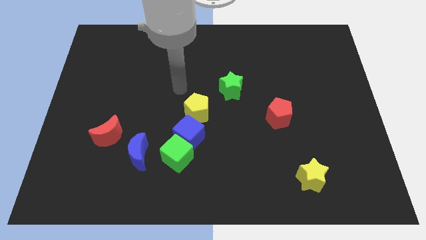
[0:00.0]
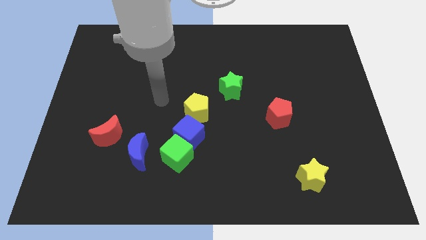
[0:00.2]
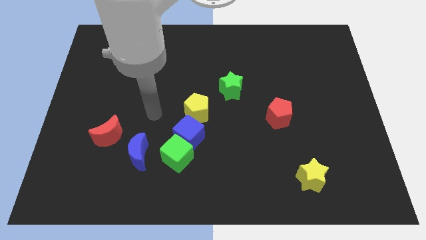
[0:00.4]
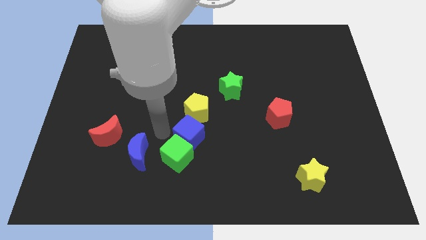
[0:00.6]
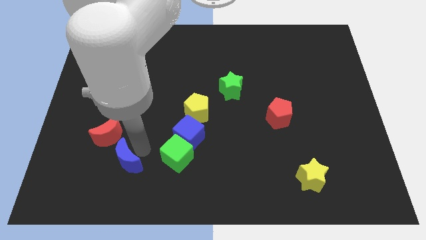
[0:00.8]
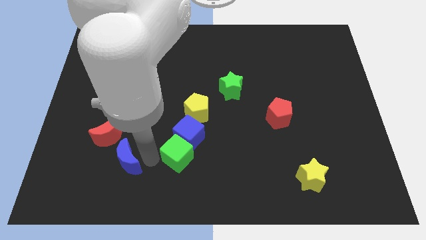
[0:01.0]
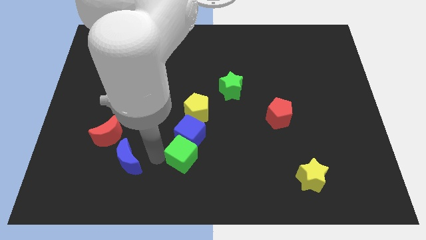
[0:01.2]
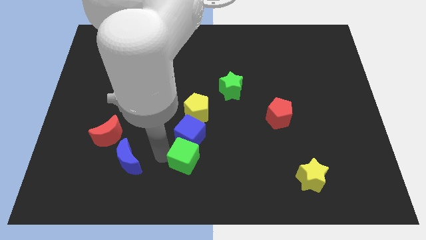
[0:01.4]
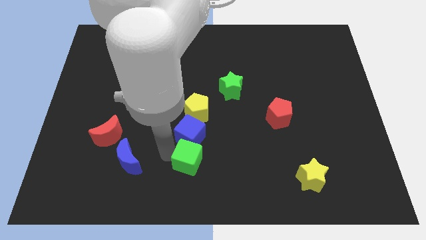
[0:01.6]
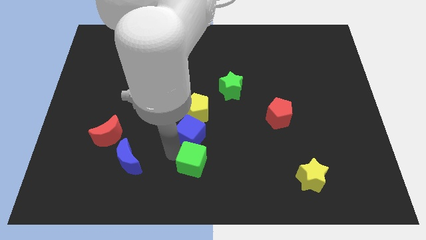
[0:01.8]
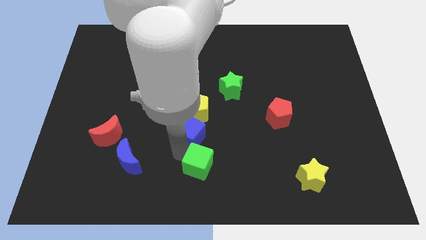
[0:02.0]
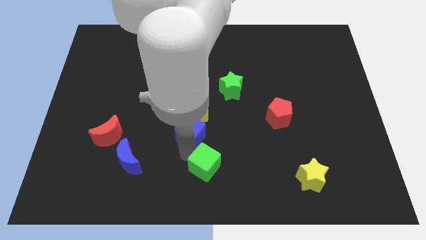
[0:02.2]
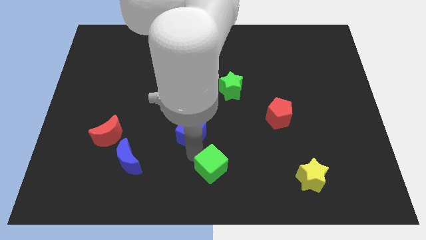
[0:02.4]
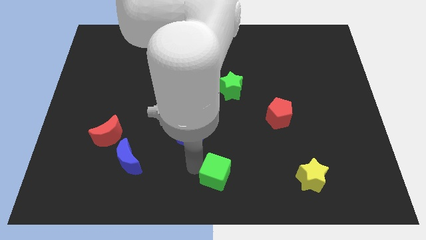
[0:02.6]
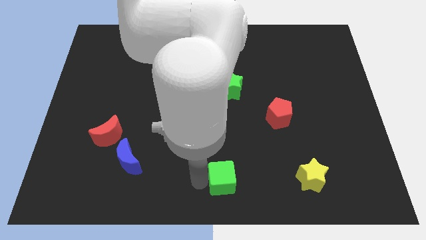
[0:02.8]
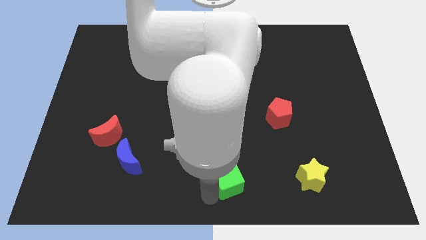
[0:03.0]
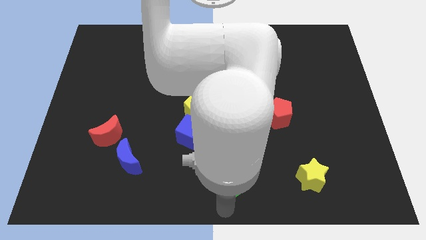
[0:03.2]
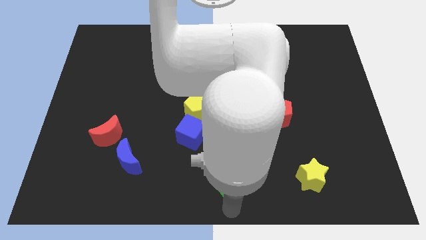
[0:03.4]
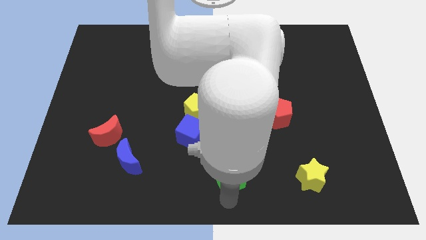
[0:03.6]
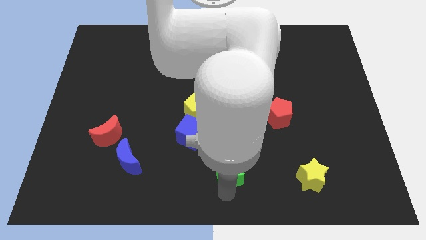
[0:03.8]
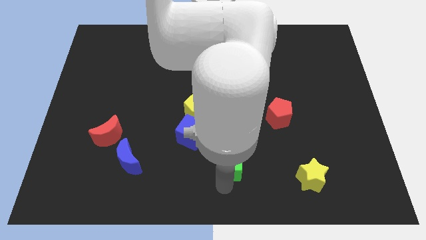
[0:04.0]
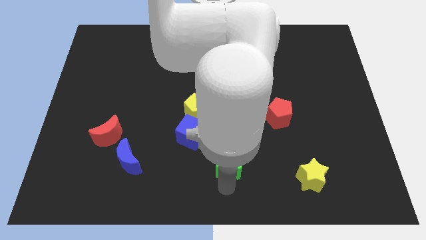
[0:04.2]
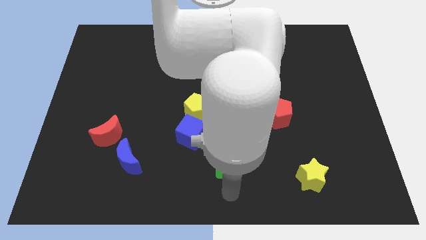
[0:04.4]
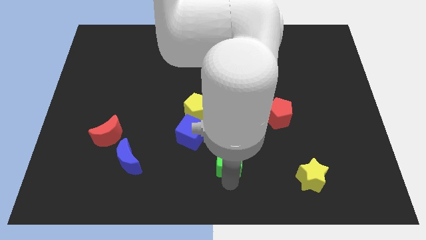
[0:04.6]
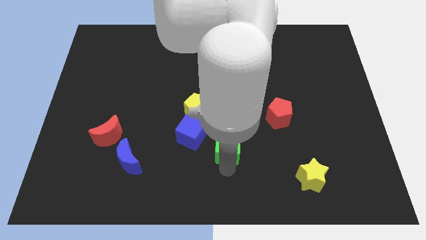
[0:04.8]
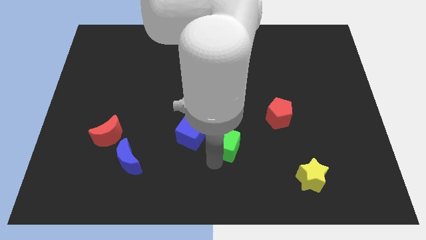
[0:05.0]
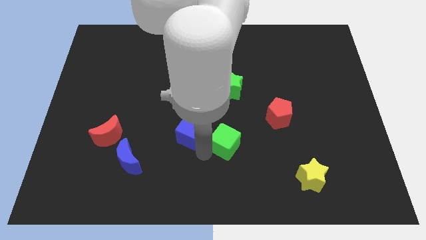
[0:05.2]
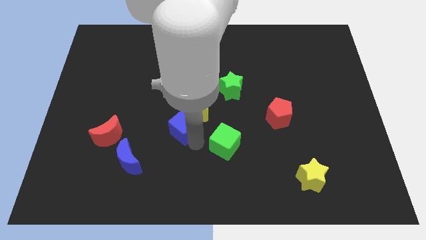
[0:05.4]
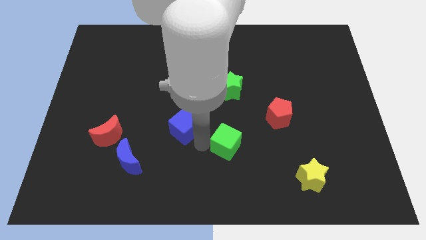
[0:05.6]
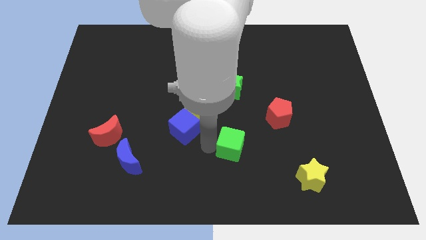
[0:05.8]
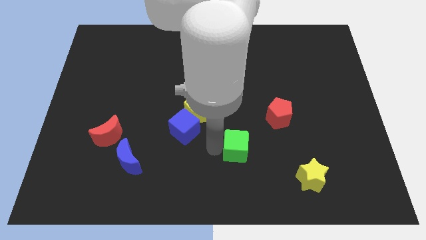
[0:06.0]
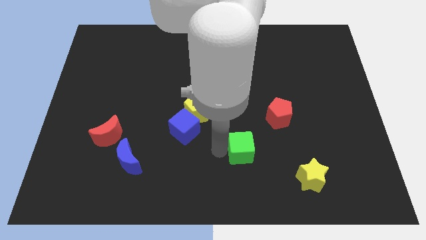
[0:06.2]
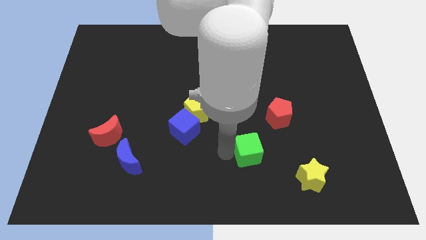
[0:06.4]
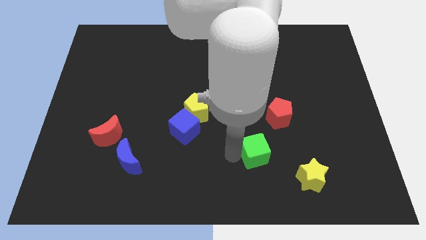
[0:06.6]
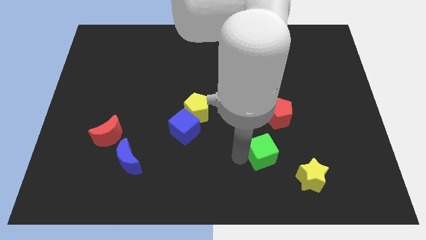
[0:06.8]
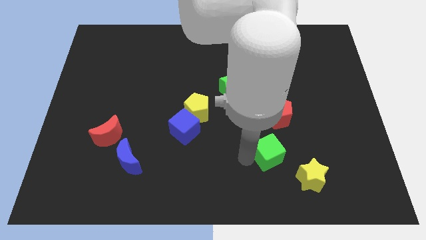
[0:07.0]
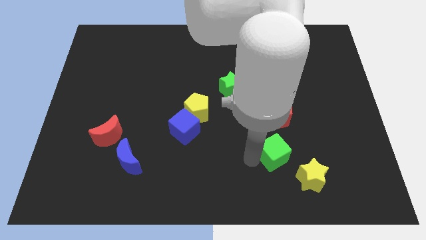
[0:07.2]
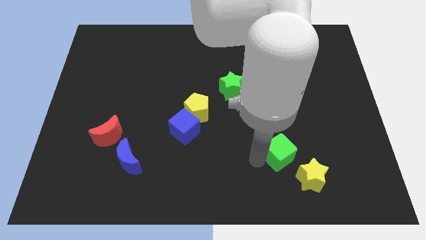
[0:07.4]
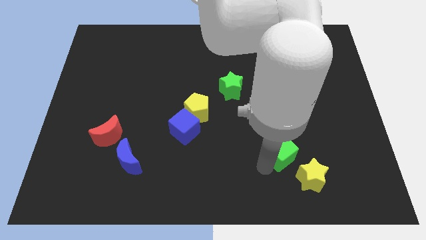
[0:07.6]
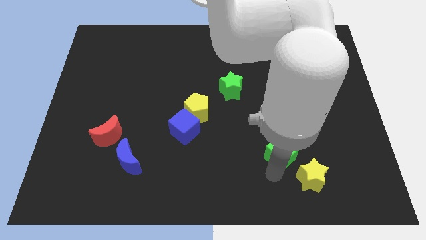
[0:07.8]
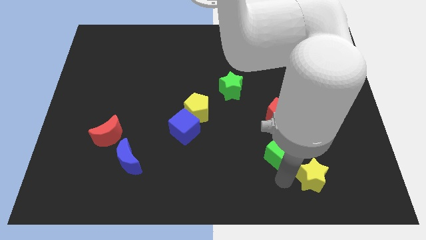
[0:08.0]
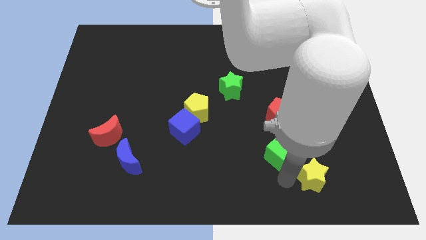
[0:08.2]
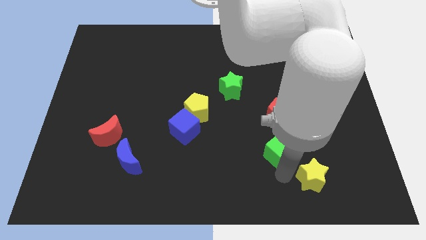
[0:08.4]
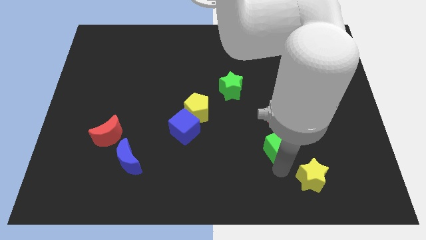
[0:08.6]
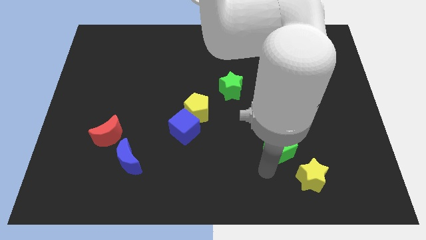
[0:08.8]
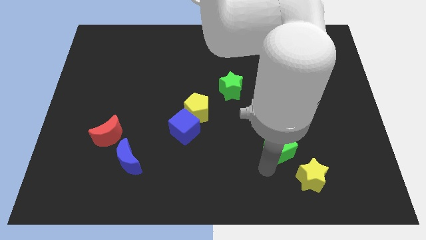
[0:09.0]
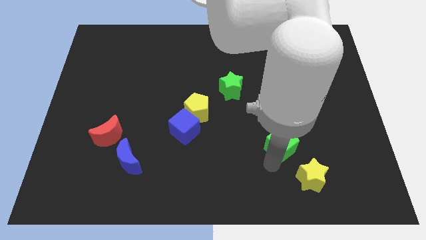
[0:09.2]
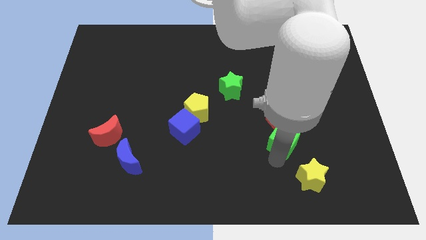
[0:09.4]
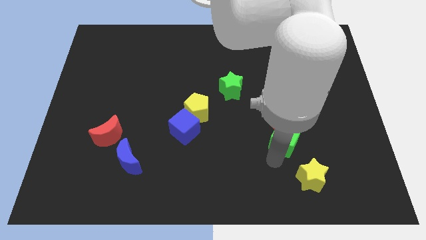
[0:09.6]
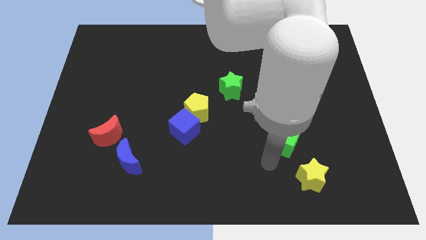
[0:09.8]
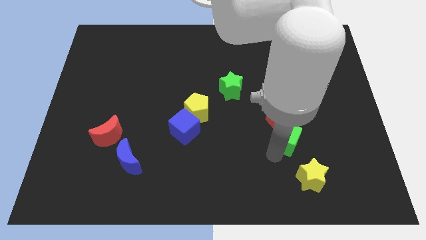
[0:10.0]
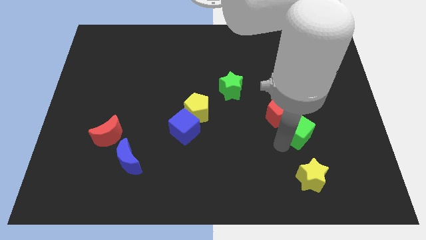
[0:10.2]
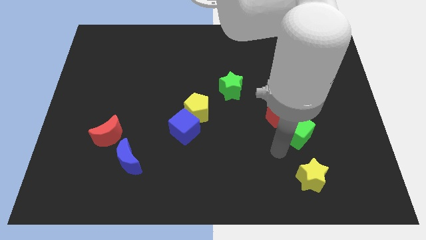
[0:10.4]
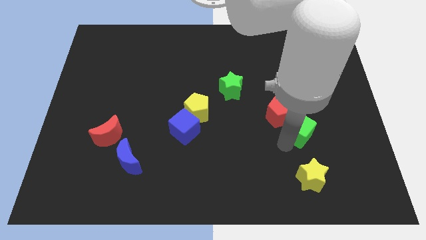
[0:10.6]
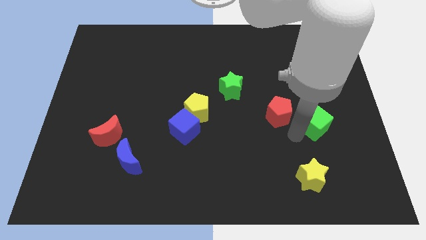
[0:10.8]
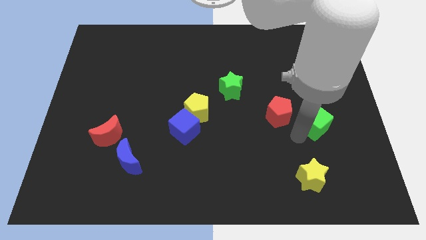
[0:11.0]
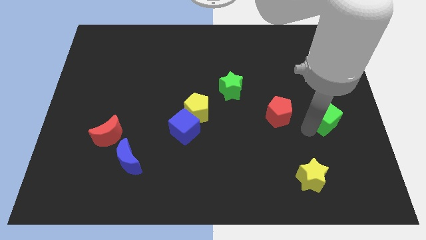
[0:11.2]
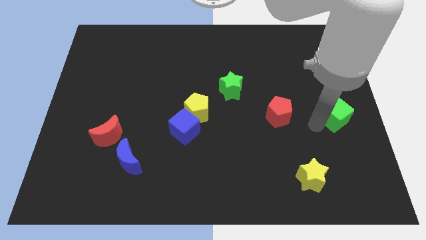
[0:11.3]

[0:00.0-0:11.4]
move the green cube to the right side
